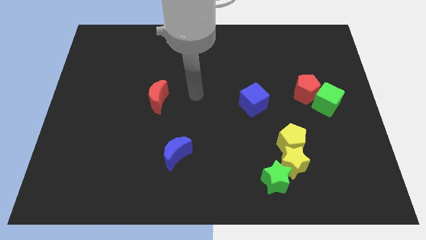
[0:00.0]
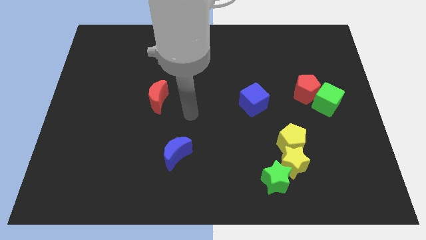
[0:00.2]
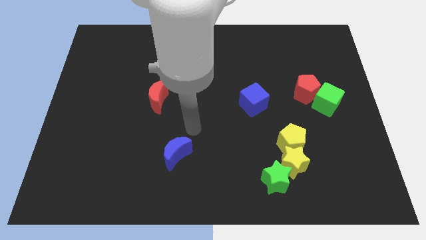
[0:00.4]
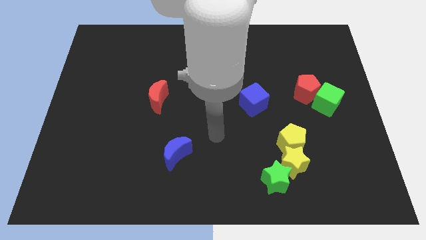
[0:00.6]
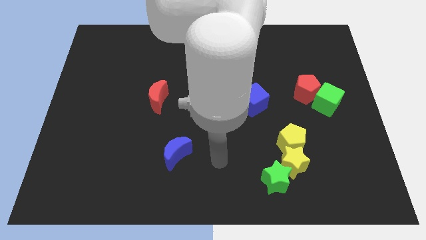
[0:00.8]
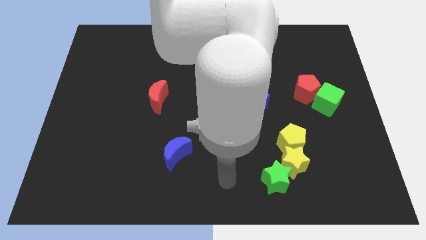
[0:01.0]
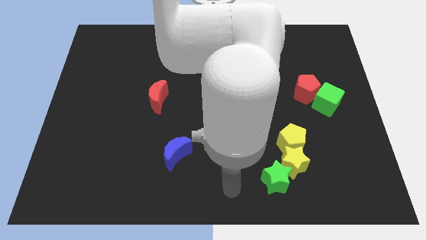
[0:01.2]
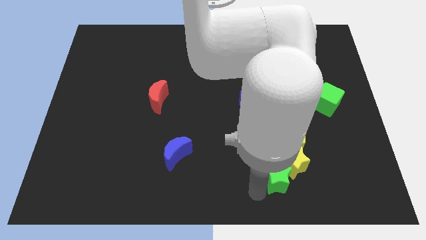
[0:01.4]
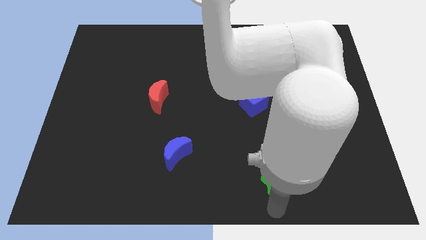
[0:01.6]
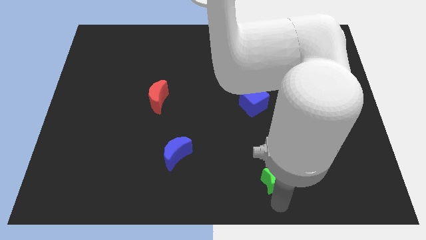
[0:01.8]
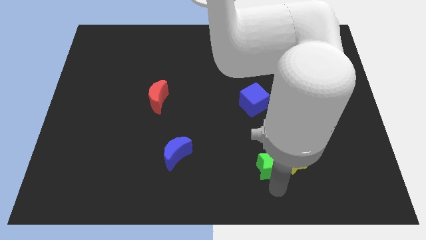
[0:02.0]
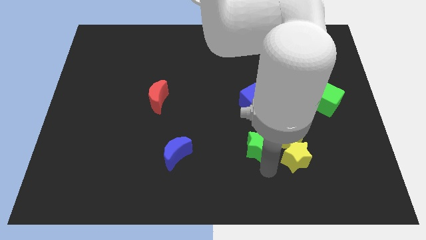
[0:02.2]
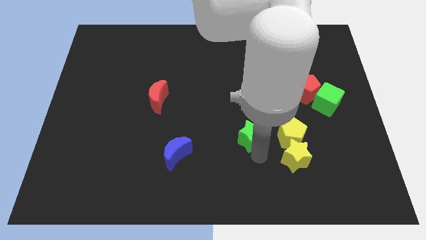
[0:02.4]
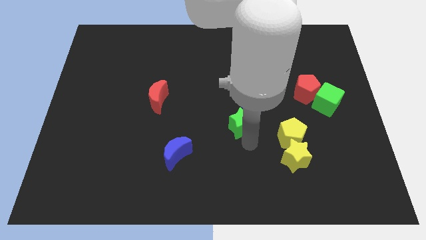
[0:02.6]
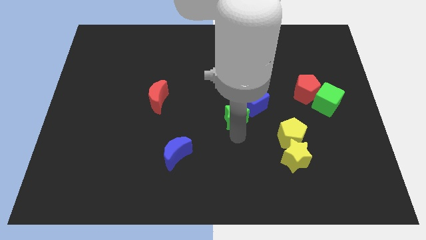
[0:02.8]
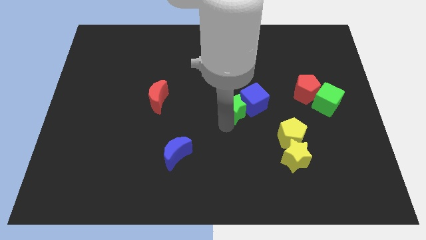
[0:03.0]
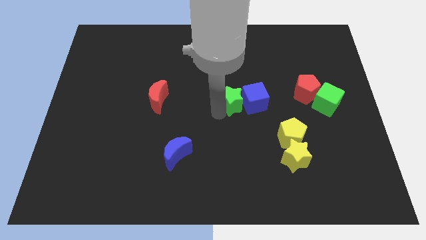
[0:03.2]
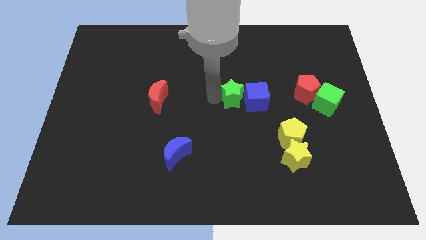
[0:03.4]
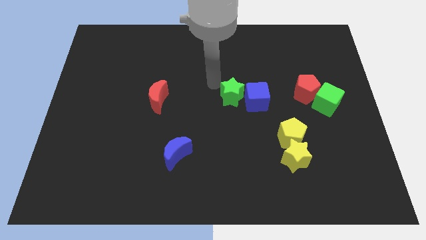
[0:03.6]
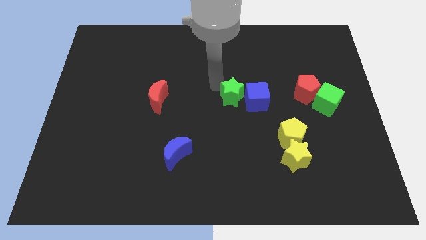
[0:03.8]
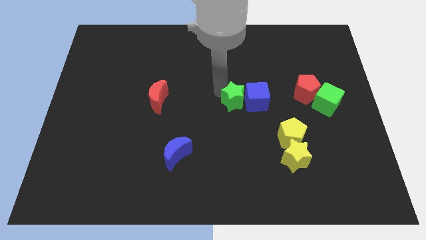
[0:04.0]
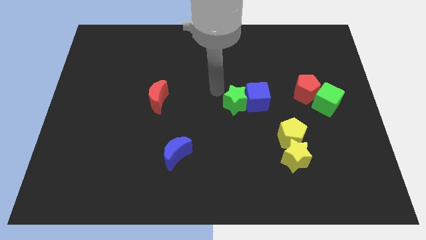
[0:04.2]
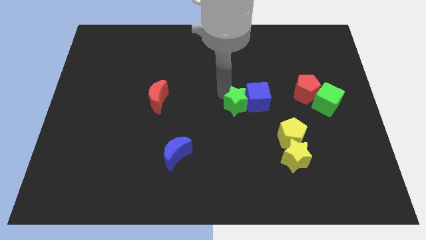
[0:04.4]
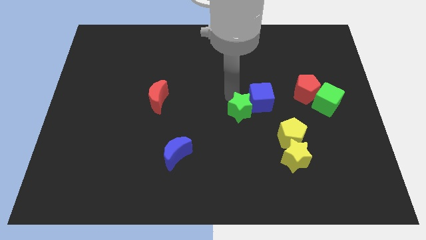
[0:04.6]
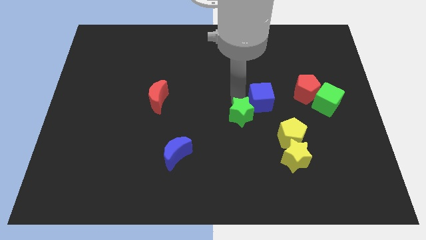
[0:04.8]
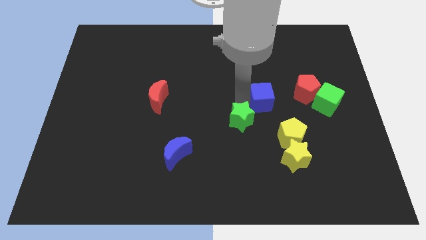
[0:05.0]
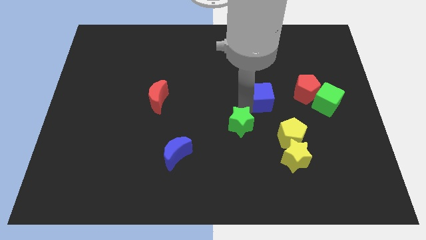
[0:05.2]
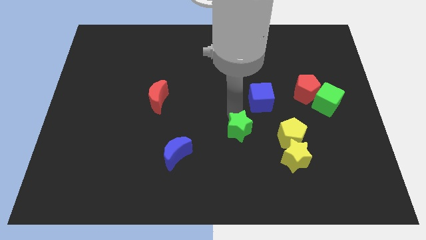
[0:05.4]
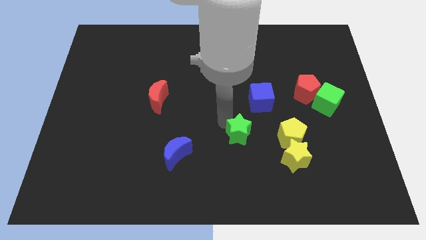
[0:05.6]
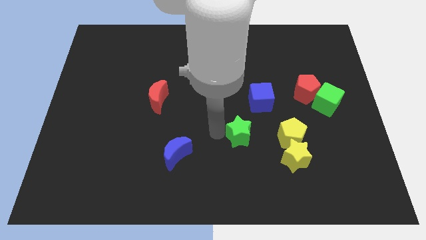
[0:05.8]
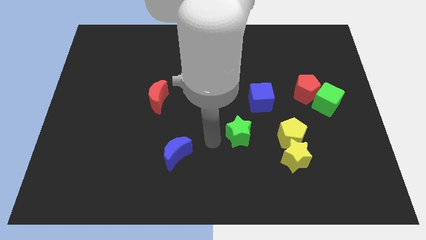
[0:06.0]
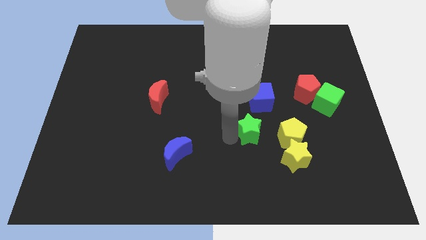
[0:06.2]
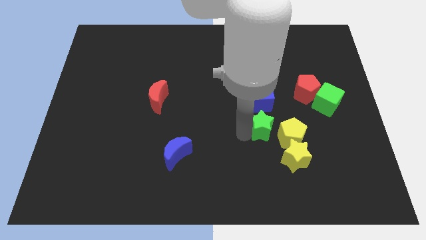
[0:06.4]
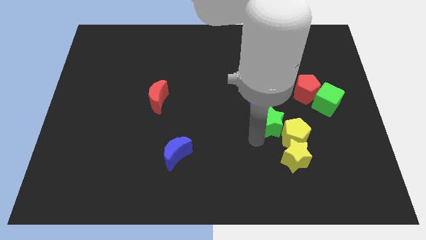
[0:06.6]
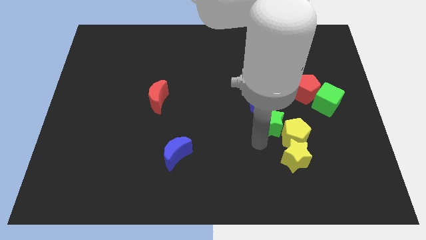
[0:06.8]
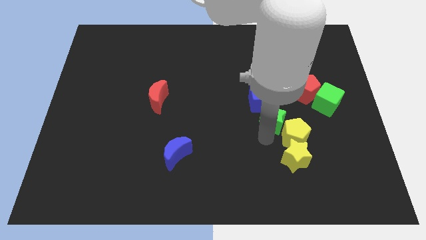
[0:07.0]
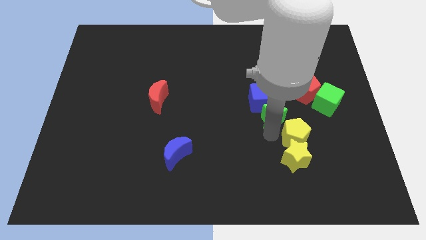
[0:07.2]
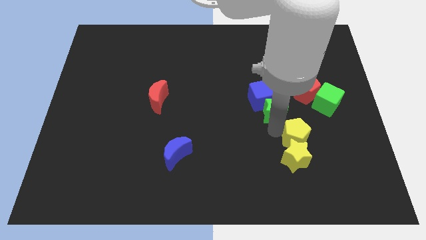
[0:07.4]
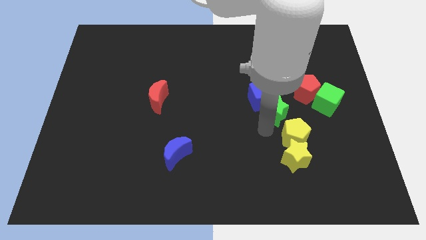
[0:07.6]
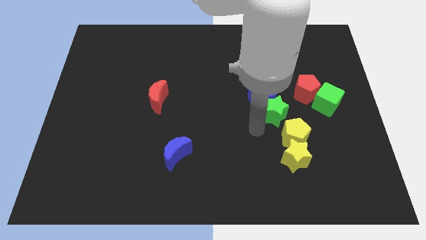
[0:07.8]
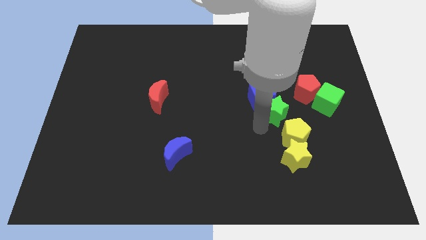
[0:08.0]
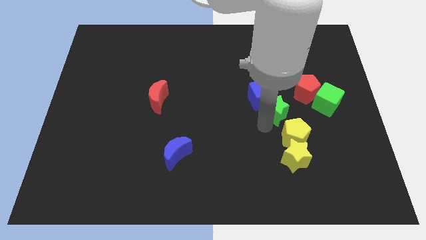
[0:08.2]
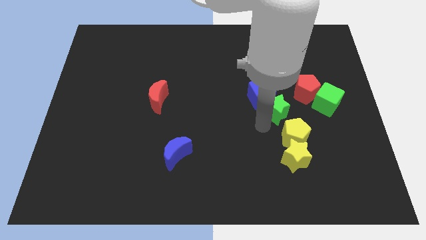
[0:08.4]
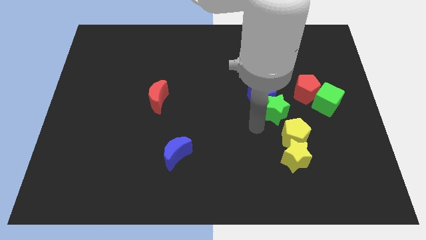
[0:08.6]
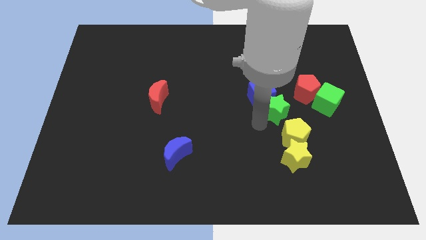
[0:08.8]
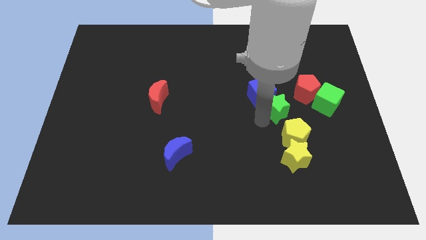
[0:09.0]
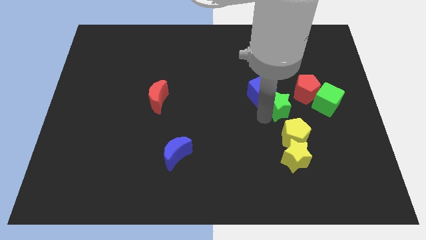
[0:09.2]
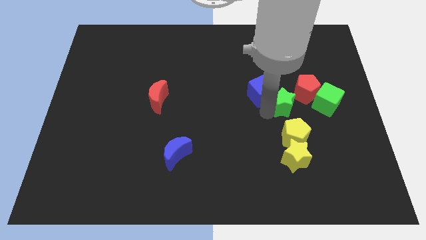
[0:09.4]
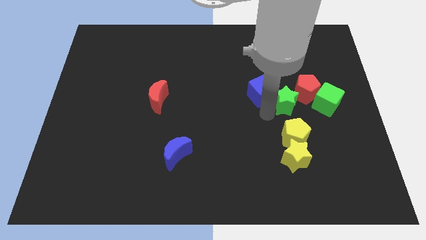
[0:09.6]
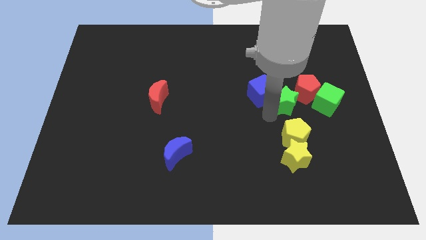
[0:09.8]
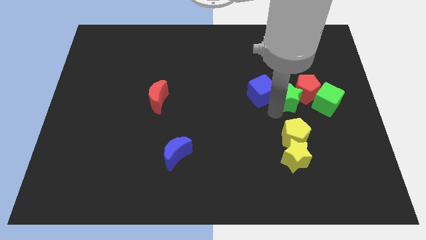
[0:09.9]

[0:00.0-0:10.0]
slide the green star to the red pentagon

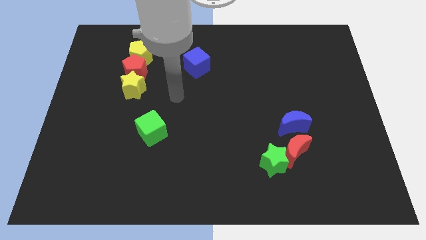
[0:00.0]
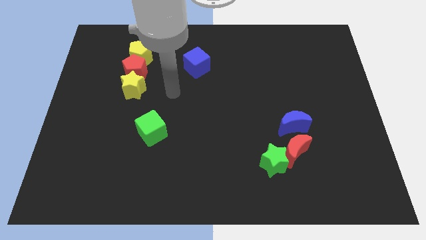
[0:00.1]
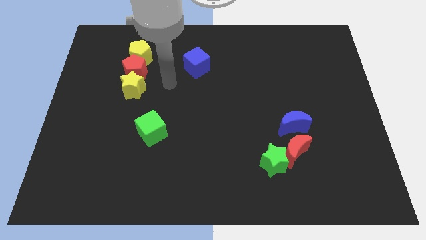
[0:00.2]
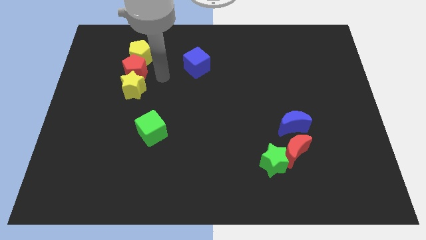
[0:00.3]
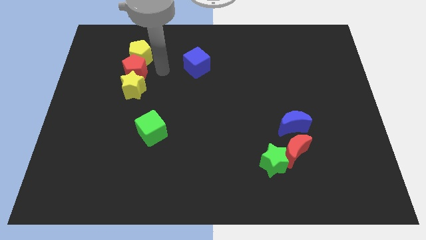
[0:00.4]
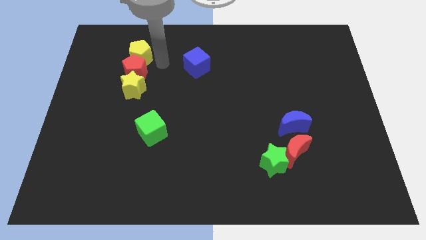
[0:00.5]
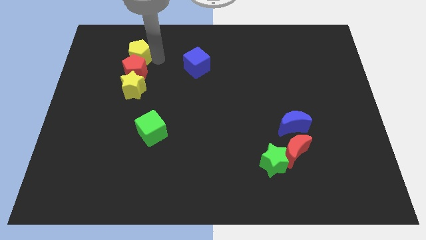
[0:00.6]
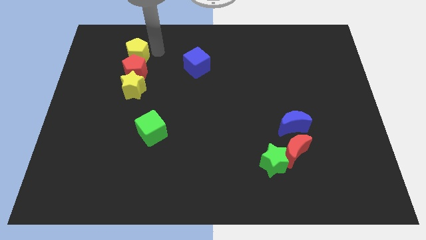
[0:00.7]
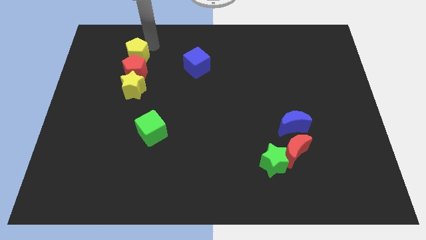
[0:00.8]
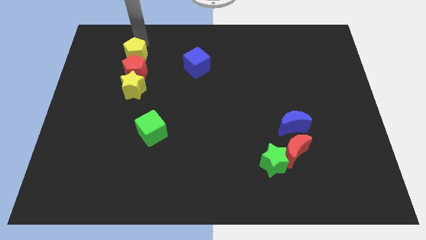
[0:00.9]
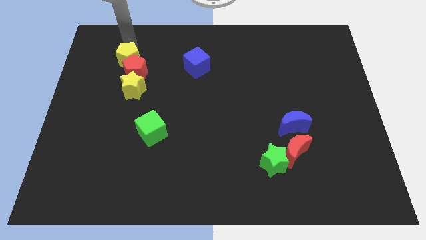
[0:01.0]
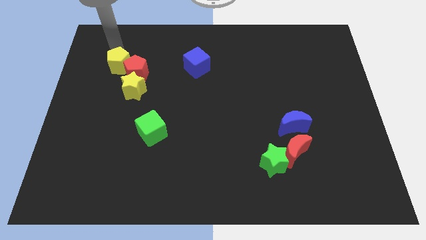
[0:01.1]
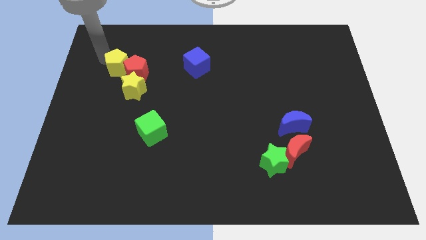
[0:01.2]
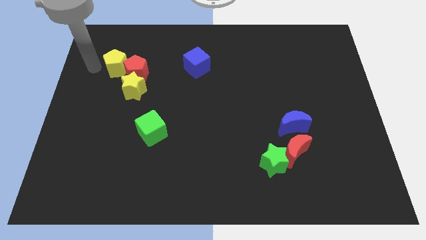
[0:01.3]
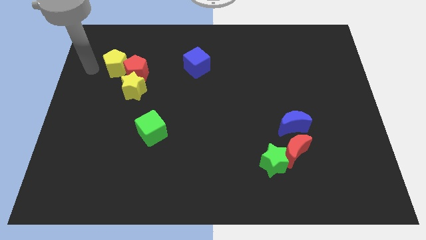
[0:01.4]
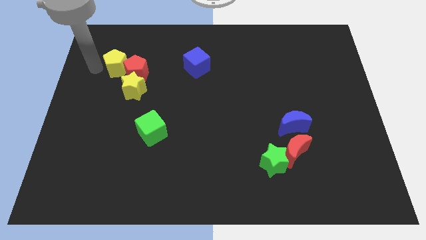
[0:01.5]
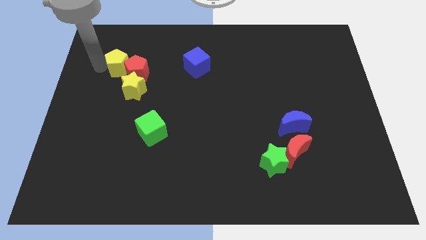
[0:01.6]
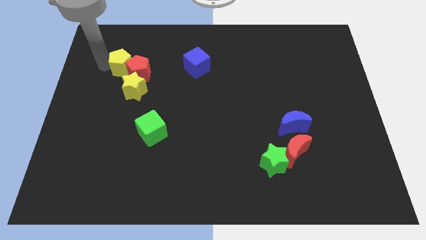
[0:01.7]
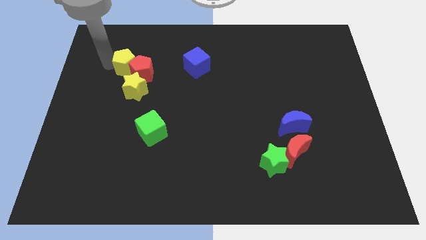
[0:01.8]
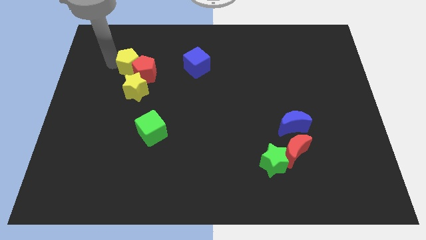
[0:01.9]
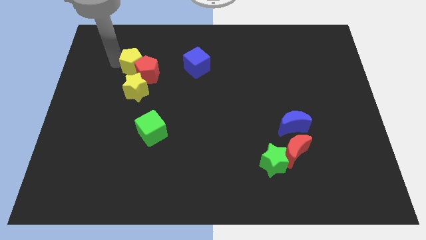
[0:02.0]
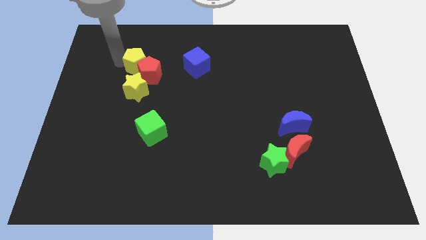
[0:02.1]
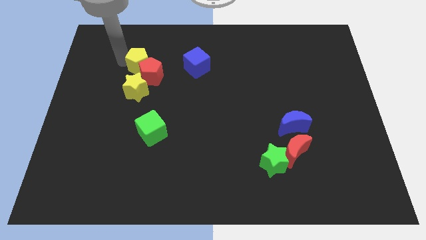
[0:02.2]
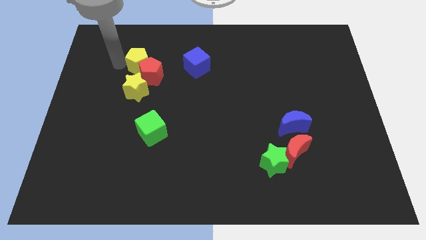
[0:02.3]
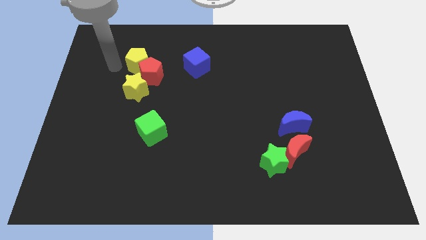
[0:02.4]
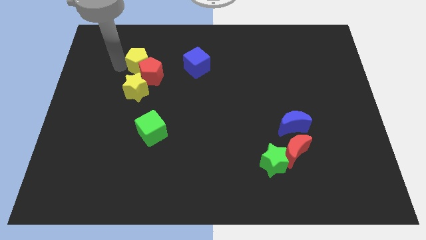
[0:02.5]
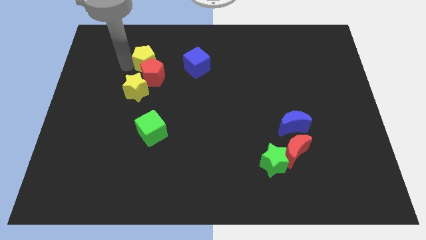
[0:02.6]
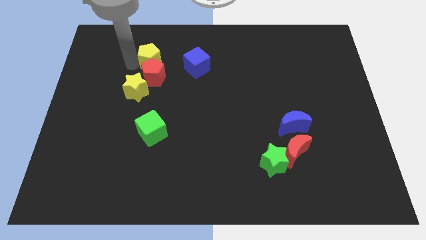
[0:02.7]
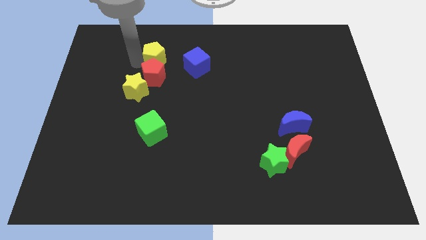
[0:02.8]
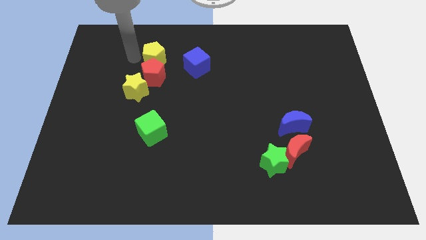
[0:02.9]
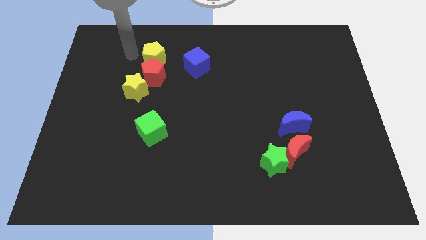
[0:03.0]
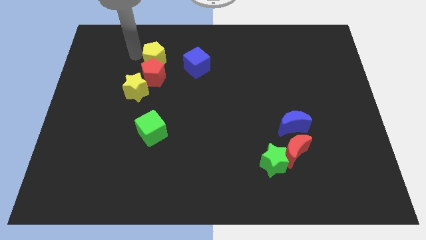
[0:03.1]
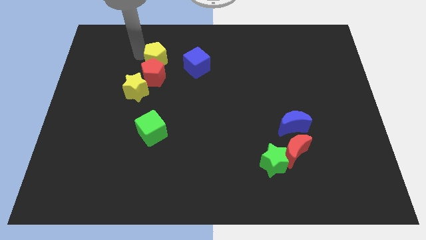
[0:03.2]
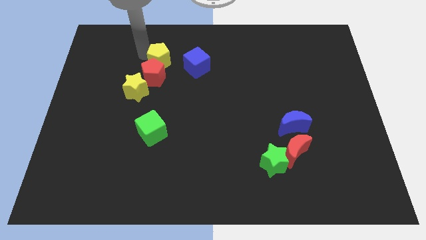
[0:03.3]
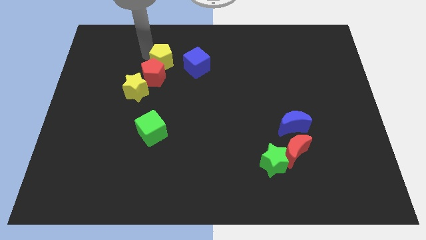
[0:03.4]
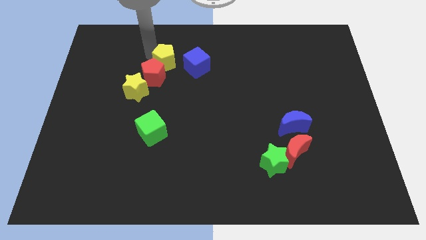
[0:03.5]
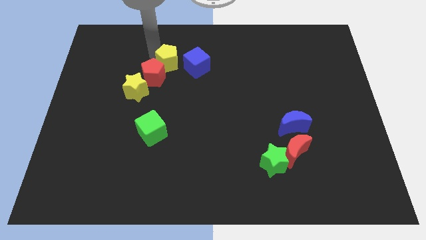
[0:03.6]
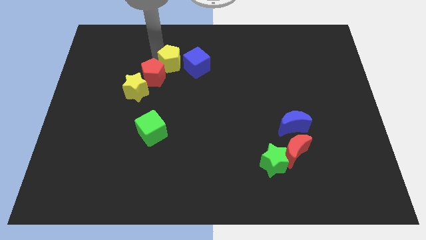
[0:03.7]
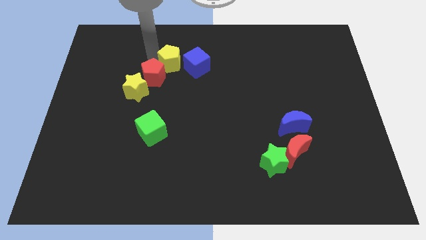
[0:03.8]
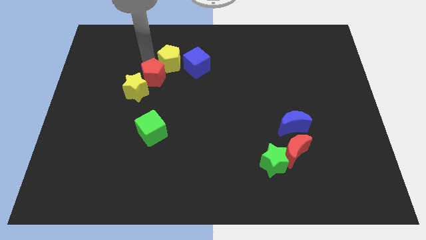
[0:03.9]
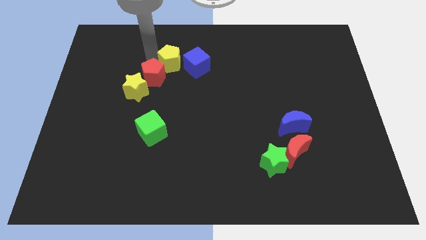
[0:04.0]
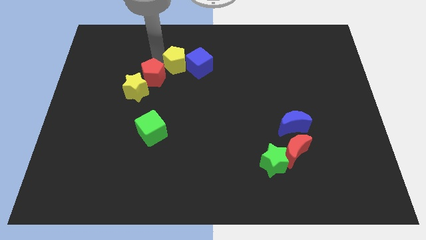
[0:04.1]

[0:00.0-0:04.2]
move the yellow pentagon to the blue cube
